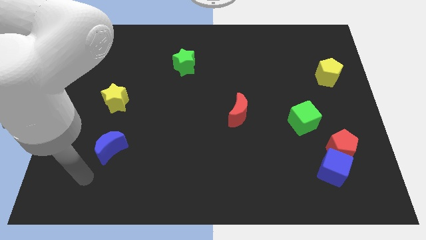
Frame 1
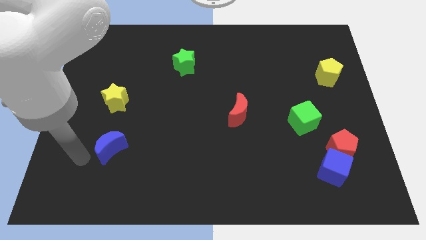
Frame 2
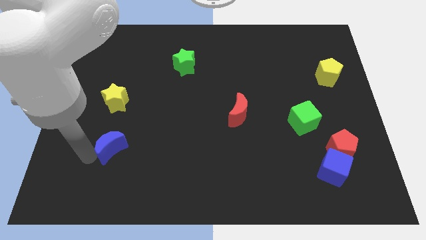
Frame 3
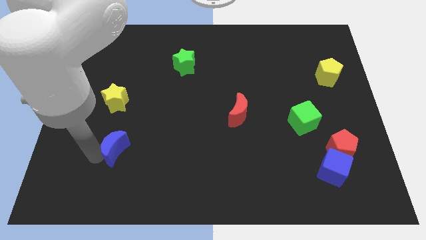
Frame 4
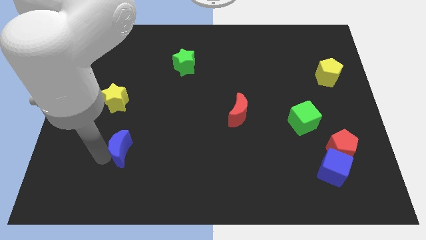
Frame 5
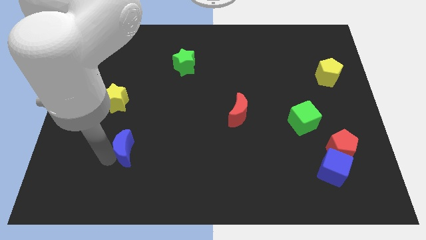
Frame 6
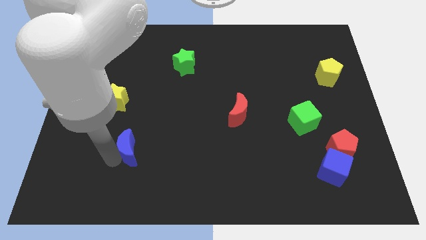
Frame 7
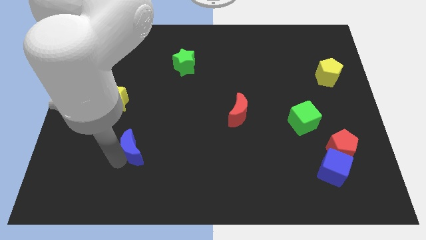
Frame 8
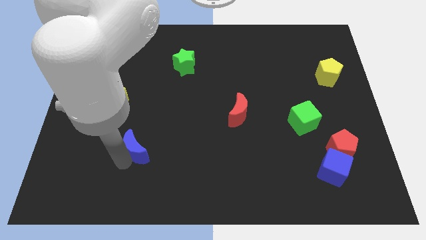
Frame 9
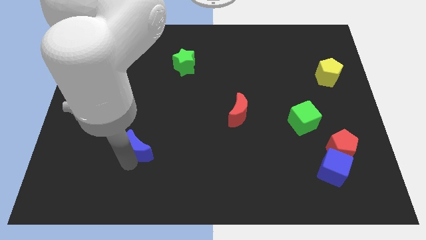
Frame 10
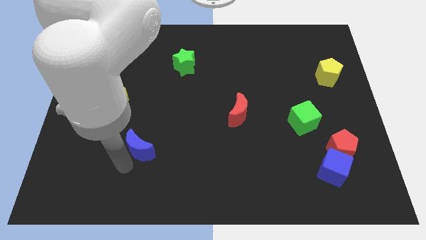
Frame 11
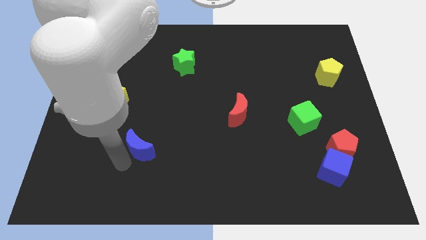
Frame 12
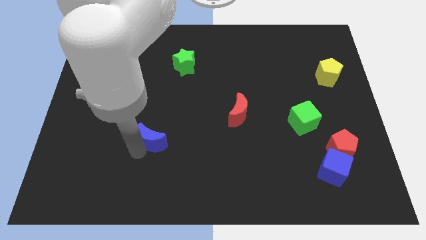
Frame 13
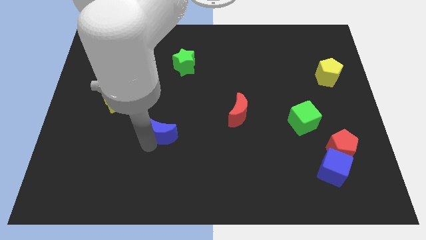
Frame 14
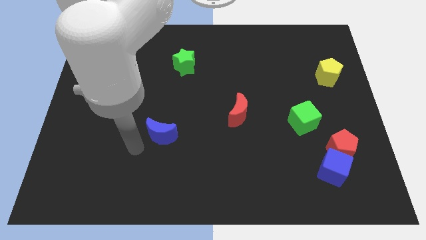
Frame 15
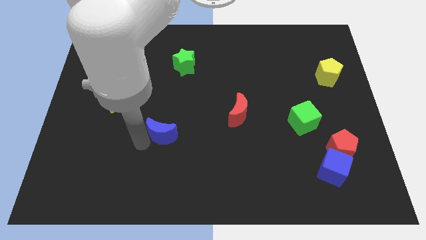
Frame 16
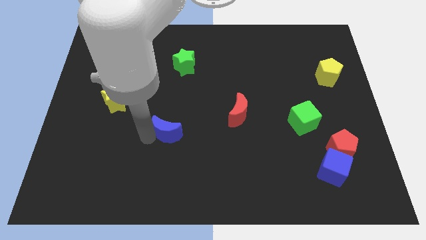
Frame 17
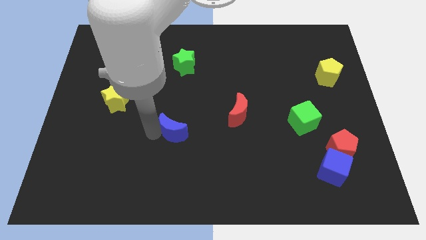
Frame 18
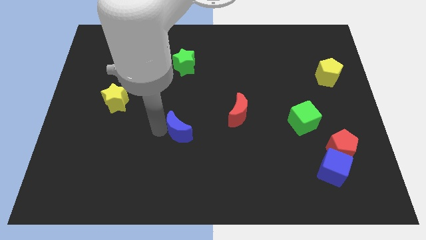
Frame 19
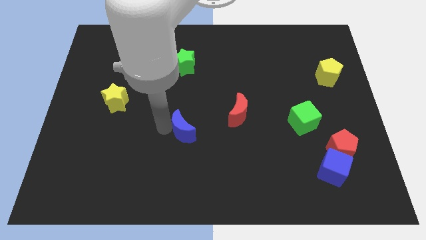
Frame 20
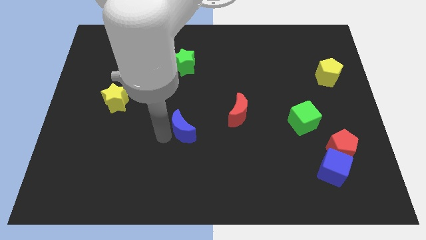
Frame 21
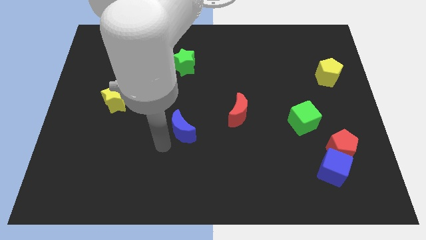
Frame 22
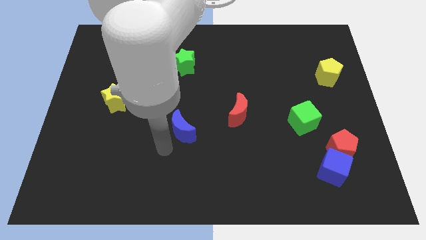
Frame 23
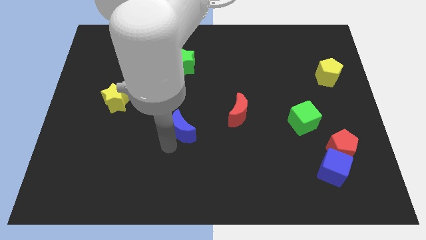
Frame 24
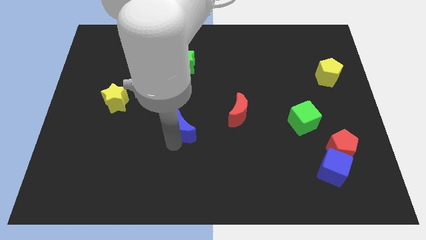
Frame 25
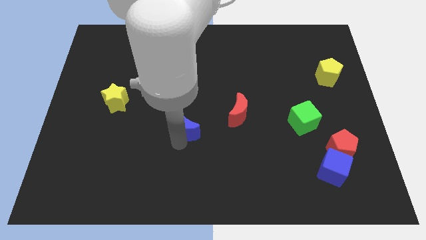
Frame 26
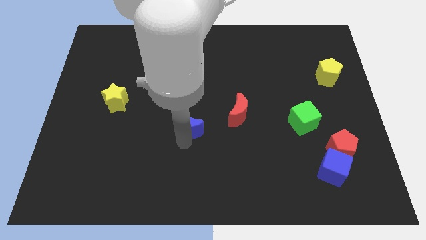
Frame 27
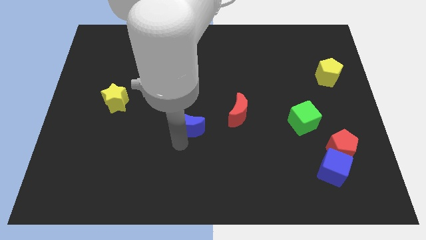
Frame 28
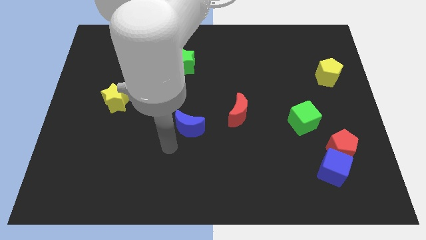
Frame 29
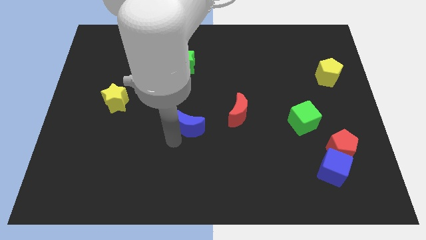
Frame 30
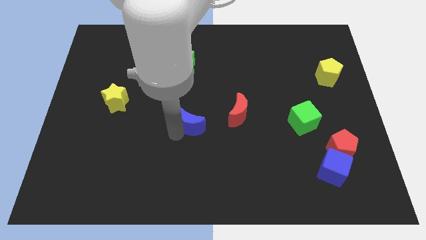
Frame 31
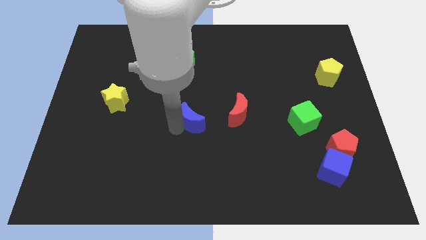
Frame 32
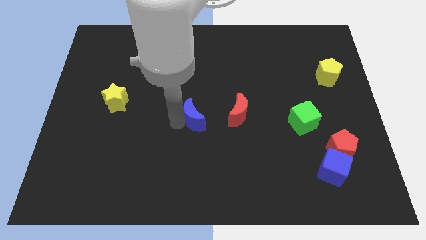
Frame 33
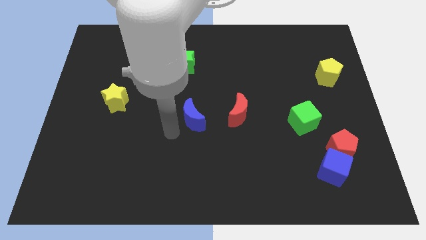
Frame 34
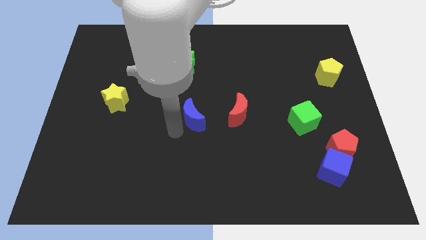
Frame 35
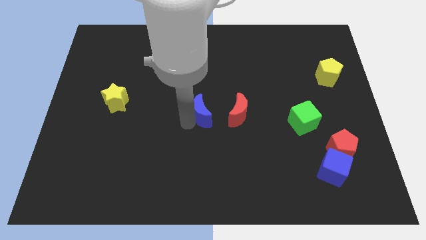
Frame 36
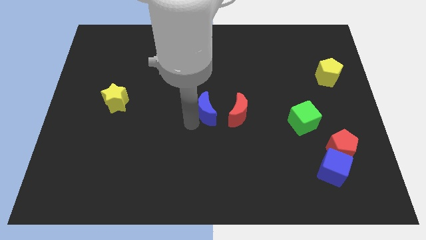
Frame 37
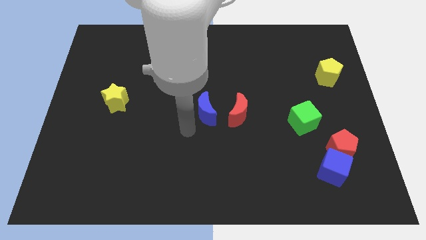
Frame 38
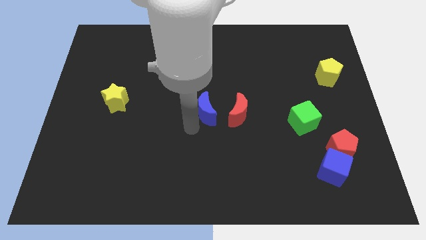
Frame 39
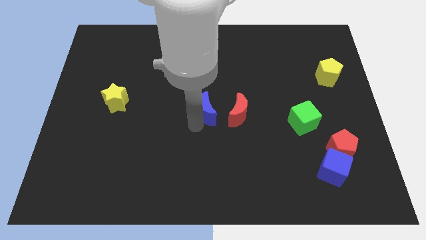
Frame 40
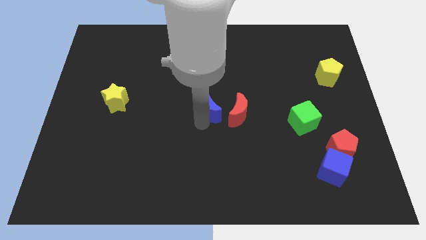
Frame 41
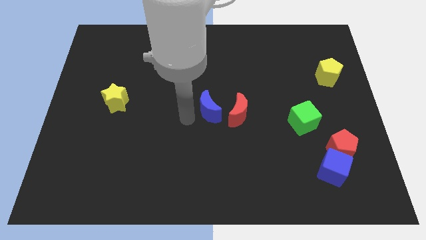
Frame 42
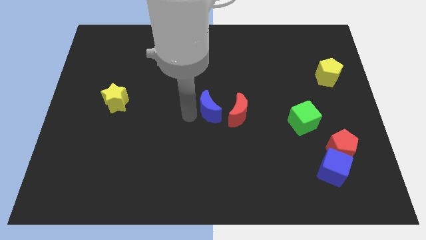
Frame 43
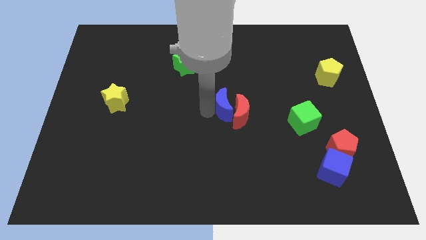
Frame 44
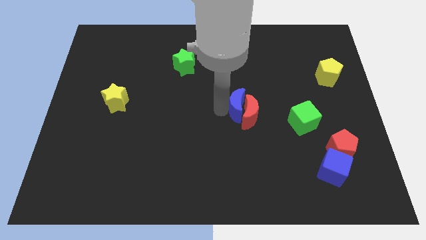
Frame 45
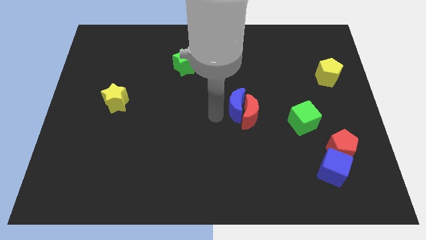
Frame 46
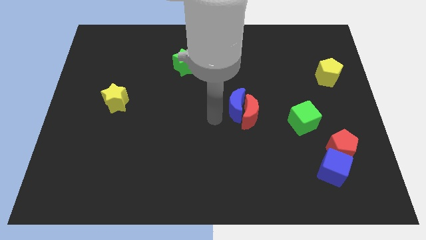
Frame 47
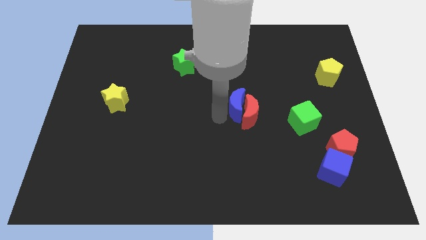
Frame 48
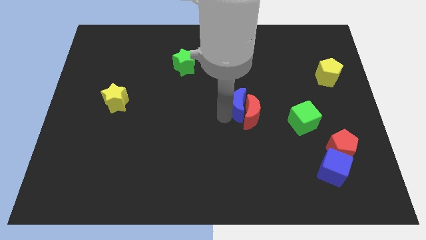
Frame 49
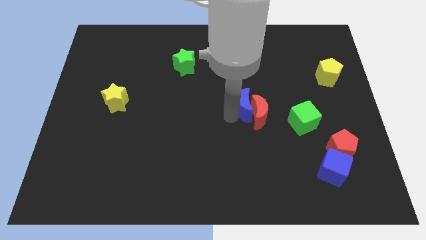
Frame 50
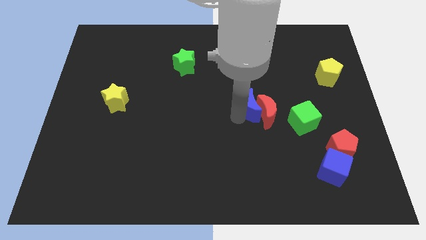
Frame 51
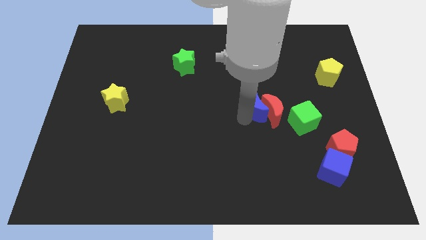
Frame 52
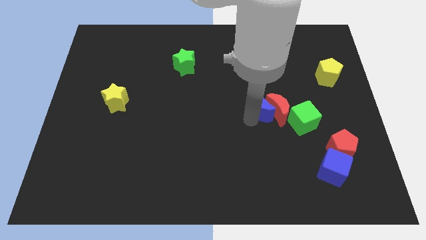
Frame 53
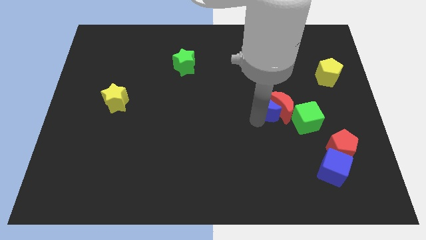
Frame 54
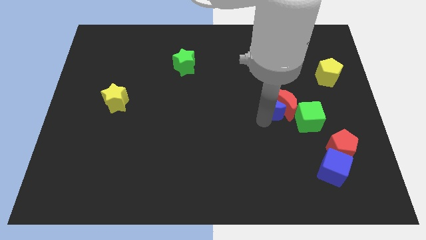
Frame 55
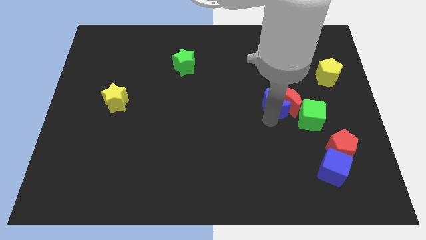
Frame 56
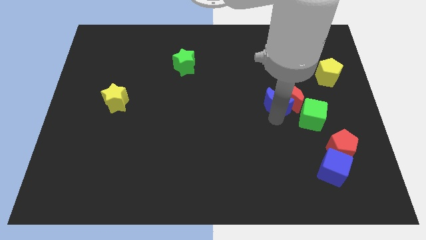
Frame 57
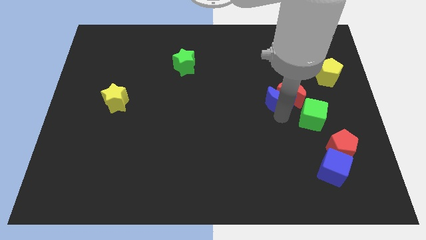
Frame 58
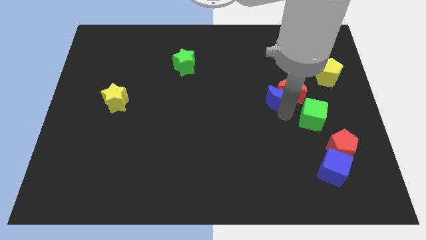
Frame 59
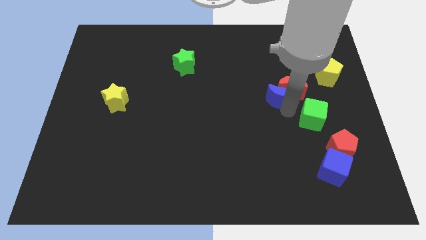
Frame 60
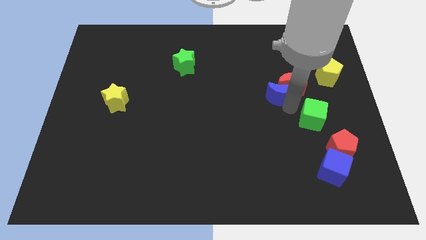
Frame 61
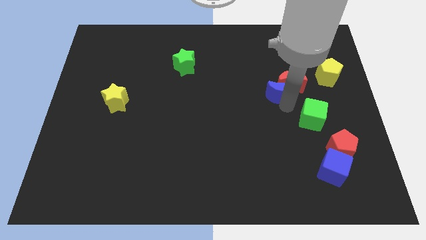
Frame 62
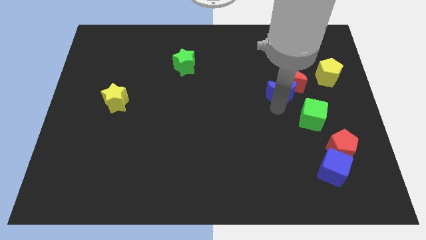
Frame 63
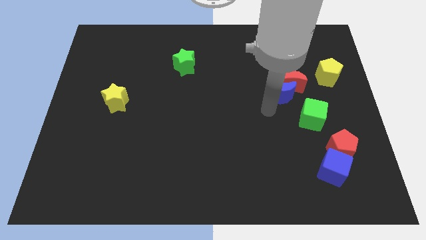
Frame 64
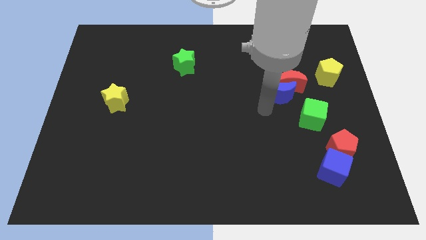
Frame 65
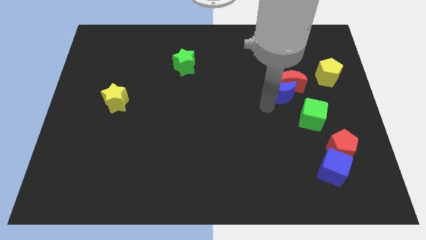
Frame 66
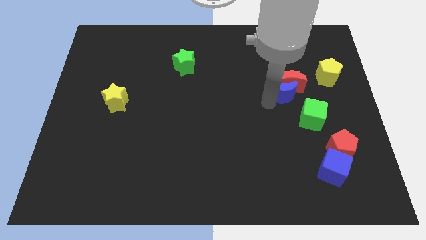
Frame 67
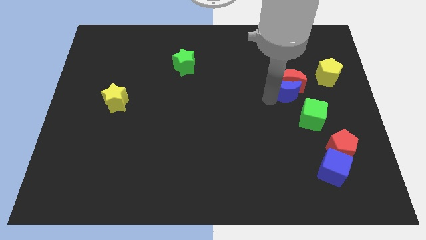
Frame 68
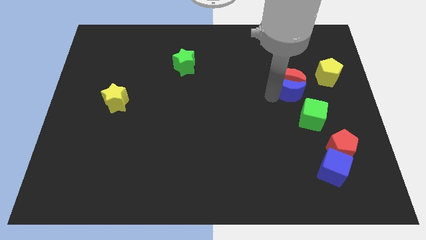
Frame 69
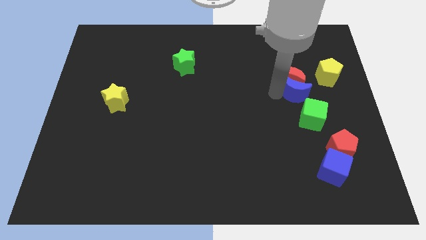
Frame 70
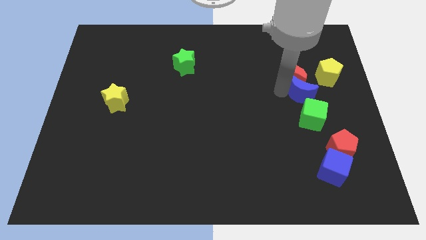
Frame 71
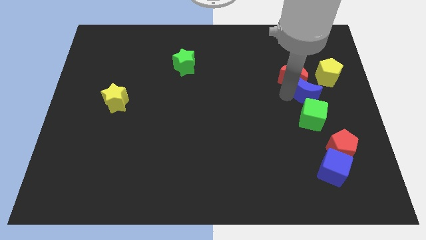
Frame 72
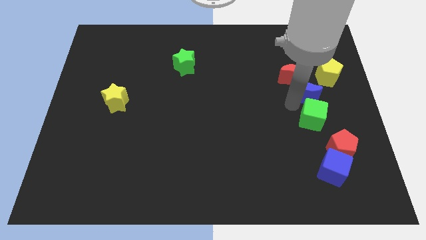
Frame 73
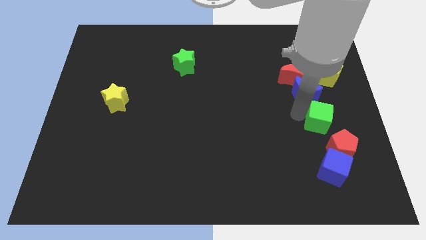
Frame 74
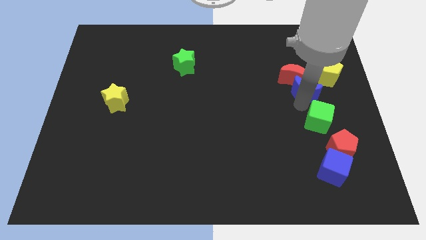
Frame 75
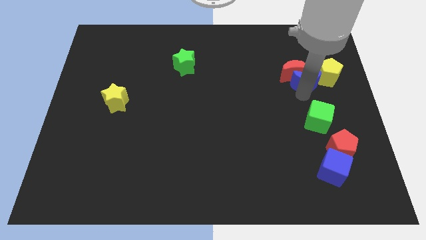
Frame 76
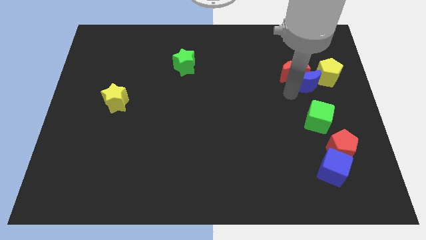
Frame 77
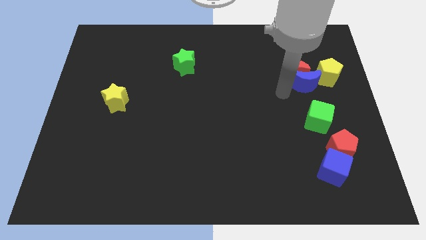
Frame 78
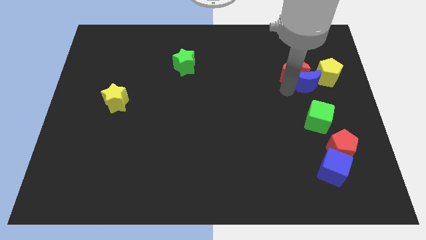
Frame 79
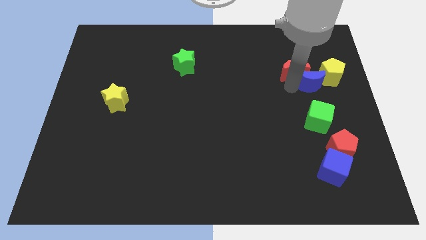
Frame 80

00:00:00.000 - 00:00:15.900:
push the blue moon next to the yellow pentagon
